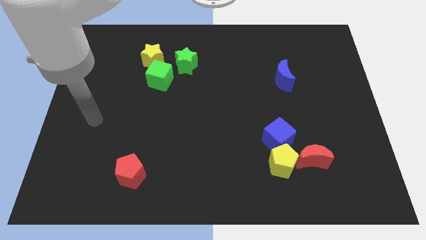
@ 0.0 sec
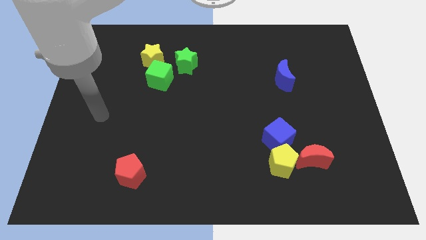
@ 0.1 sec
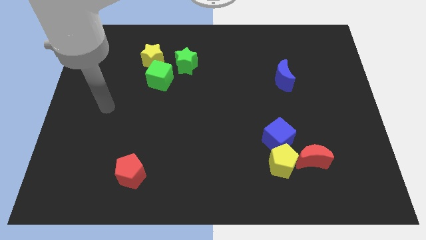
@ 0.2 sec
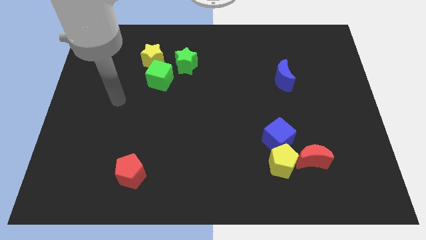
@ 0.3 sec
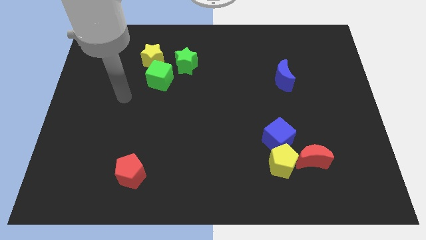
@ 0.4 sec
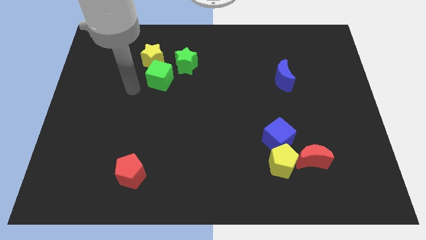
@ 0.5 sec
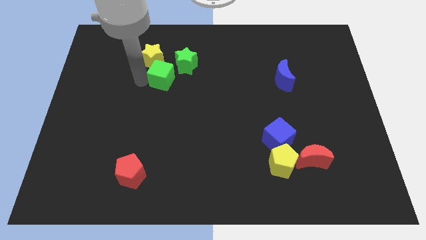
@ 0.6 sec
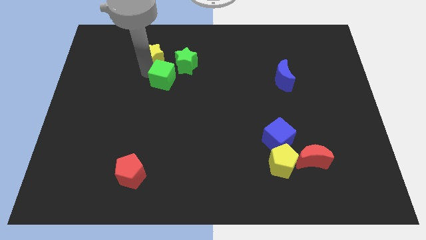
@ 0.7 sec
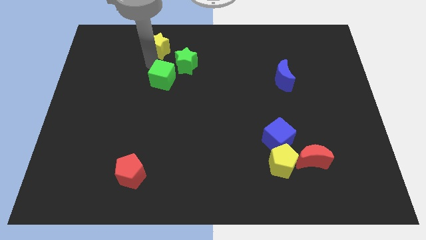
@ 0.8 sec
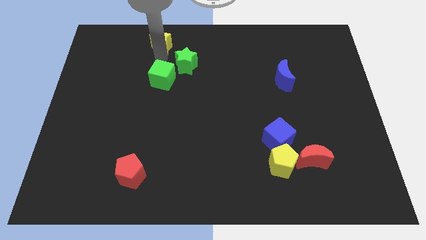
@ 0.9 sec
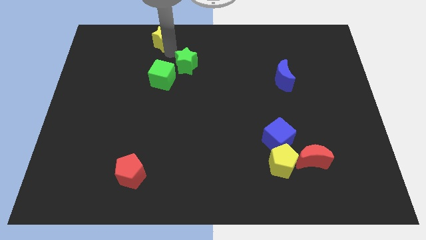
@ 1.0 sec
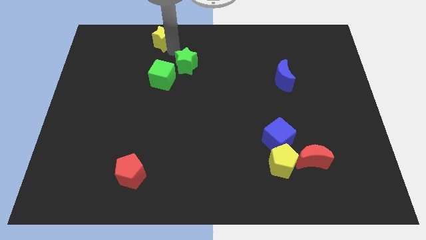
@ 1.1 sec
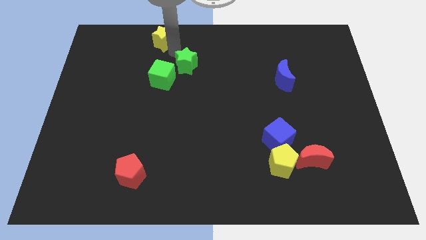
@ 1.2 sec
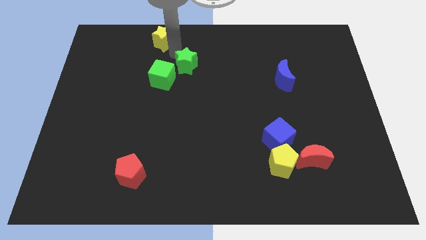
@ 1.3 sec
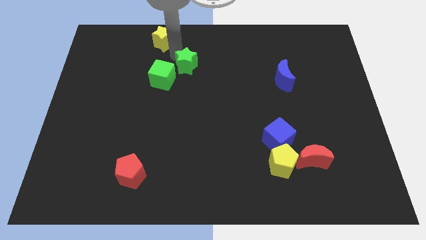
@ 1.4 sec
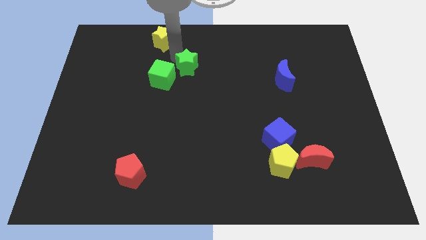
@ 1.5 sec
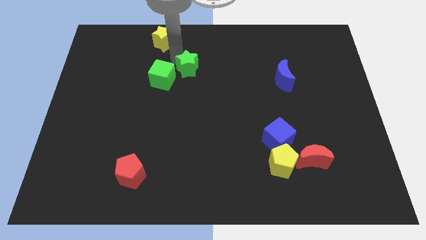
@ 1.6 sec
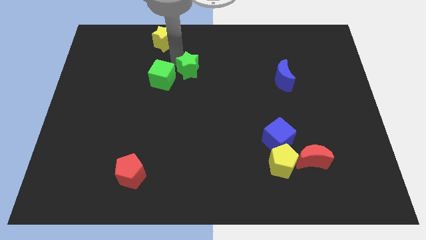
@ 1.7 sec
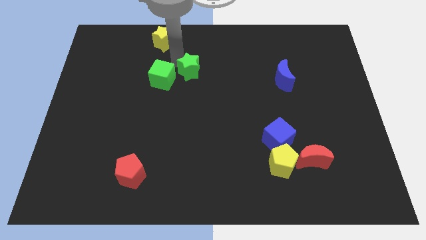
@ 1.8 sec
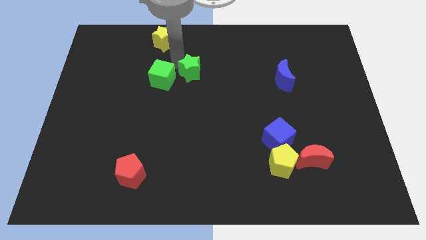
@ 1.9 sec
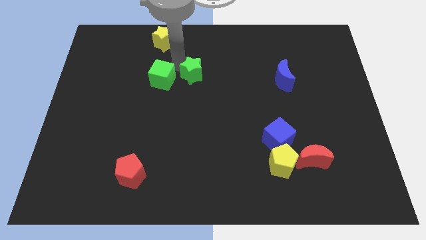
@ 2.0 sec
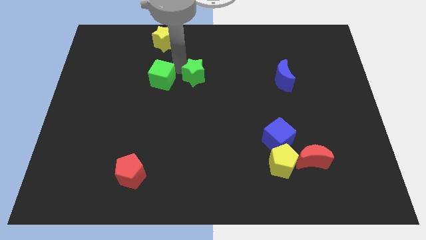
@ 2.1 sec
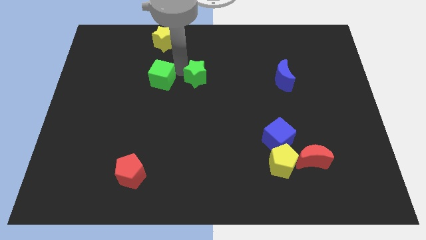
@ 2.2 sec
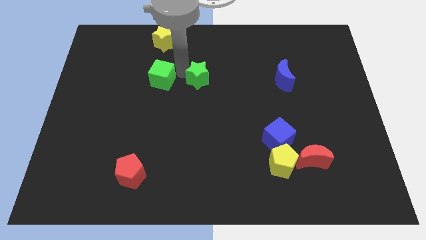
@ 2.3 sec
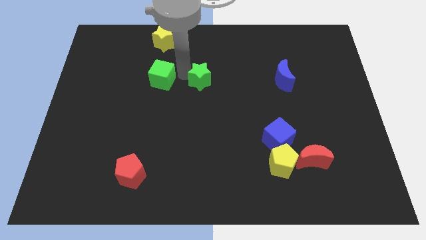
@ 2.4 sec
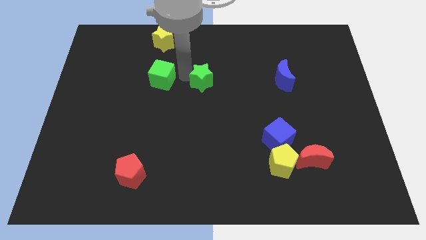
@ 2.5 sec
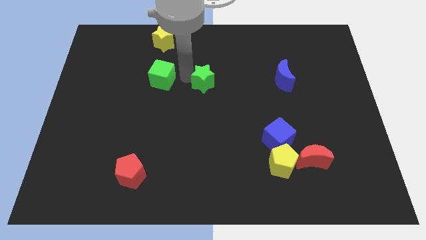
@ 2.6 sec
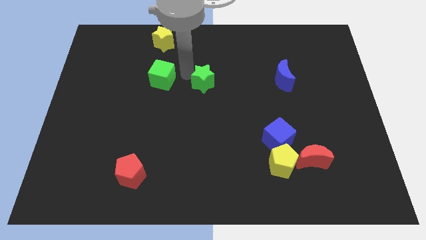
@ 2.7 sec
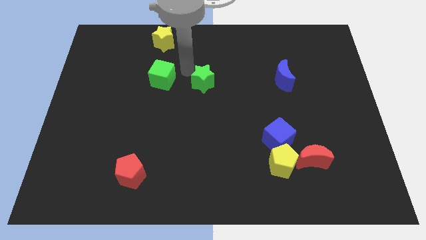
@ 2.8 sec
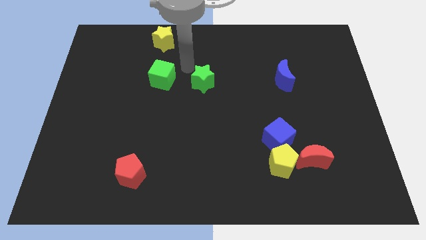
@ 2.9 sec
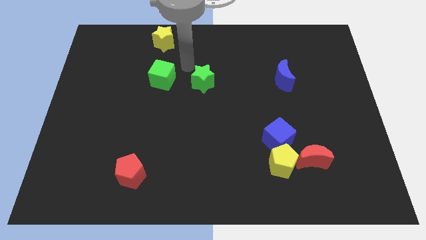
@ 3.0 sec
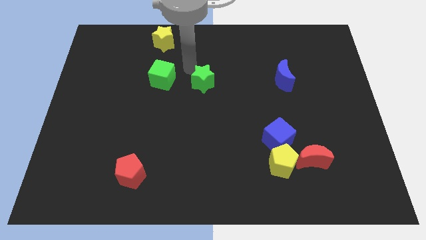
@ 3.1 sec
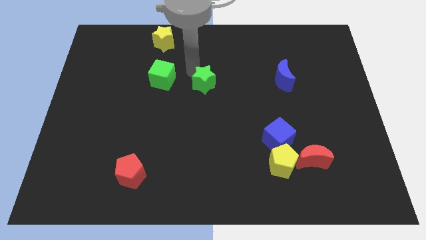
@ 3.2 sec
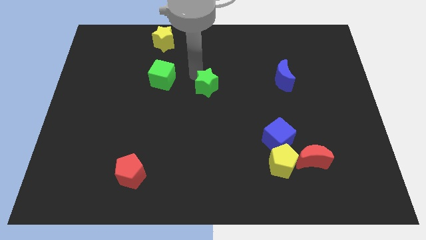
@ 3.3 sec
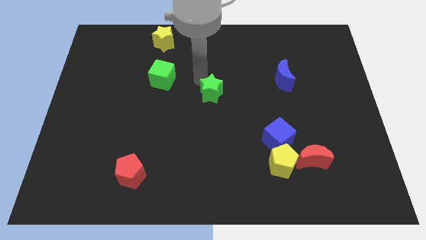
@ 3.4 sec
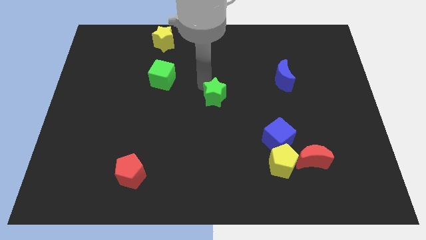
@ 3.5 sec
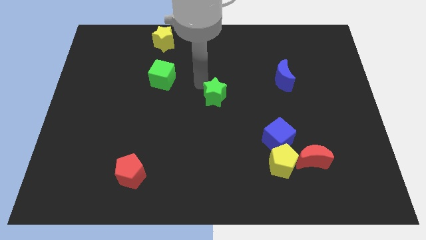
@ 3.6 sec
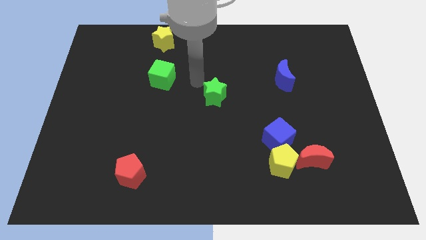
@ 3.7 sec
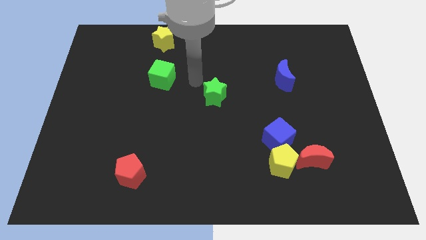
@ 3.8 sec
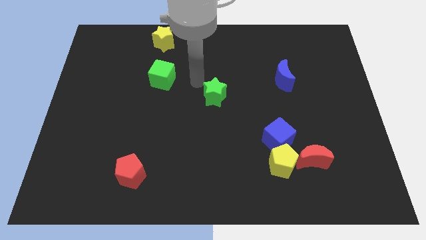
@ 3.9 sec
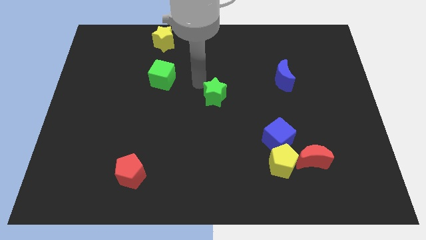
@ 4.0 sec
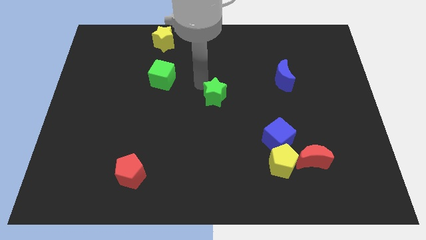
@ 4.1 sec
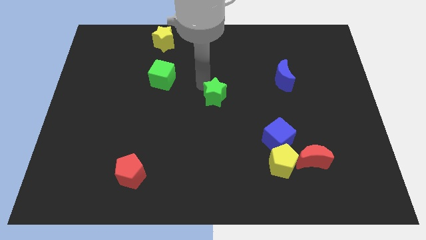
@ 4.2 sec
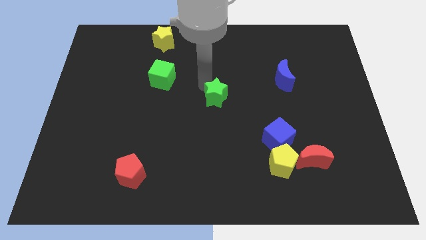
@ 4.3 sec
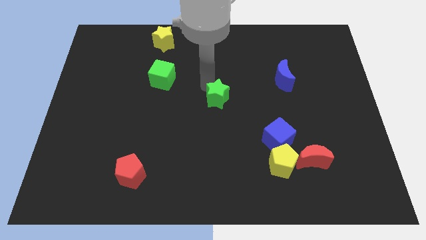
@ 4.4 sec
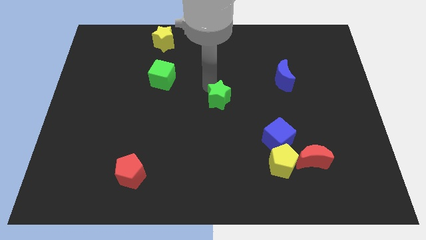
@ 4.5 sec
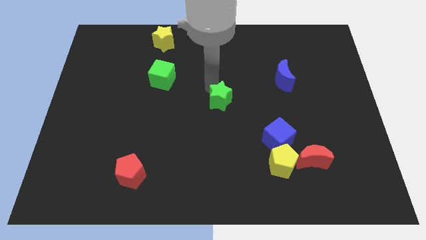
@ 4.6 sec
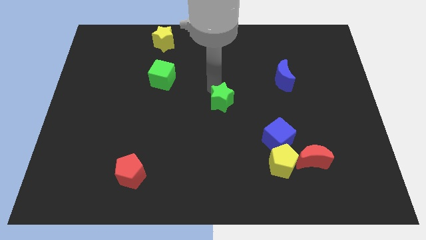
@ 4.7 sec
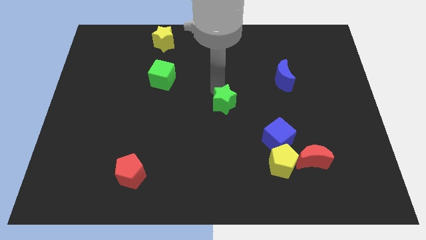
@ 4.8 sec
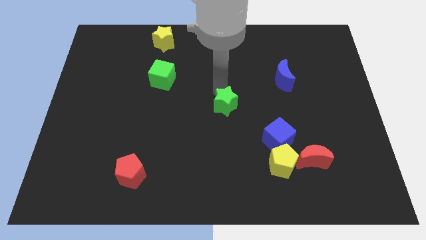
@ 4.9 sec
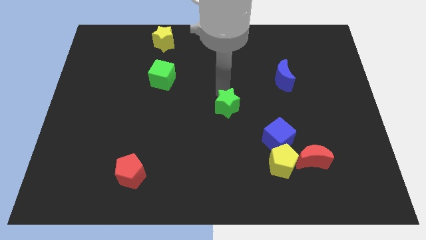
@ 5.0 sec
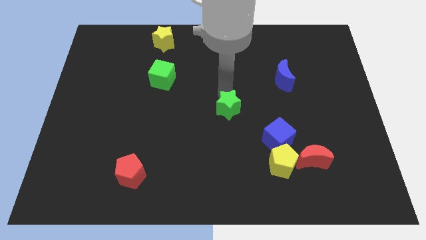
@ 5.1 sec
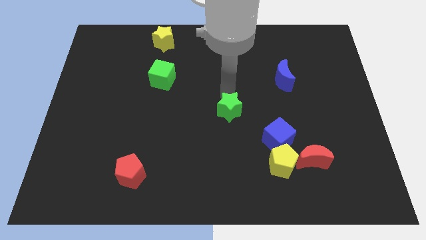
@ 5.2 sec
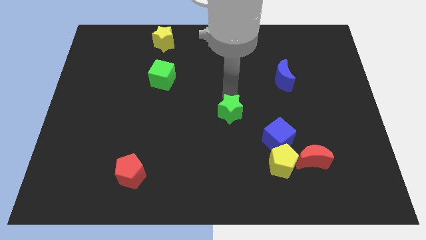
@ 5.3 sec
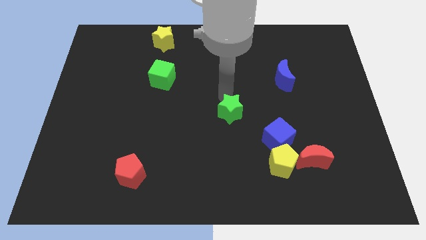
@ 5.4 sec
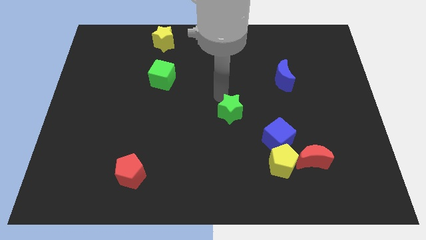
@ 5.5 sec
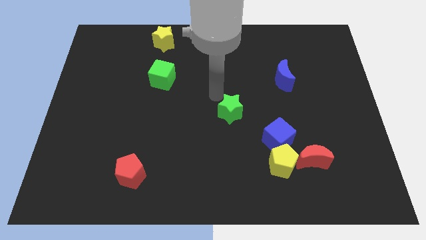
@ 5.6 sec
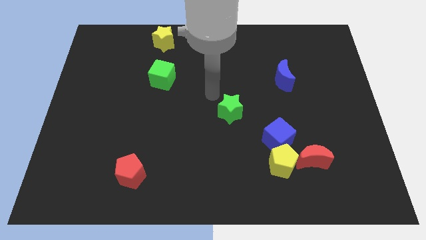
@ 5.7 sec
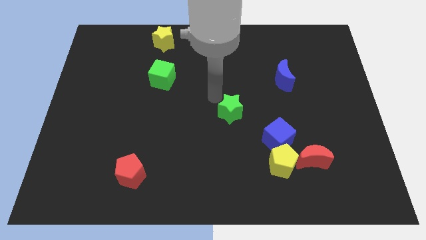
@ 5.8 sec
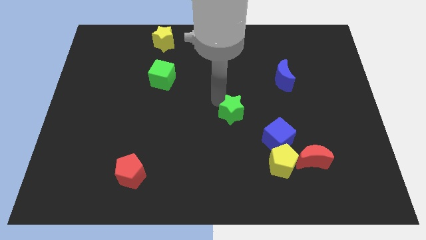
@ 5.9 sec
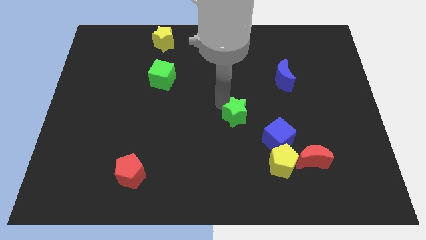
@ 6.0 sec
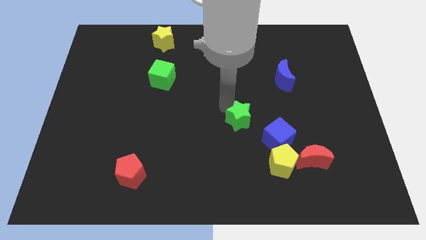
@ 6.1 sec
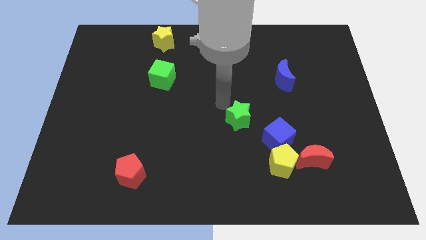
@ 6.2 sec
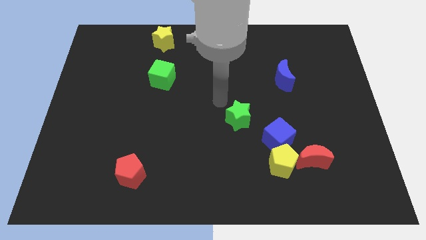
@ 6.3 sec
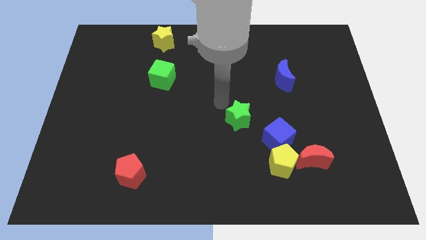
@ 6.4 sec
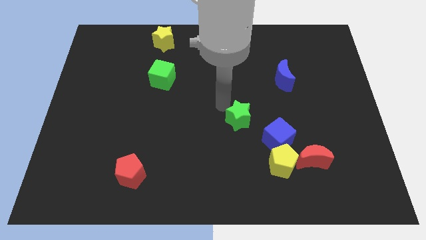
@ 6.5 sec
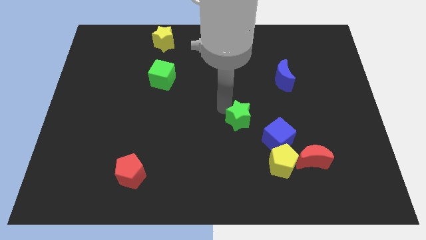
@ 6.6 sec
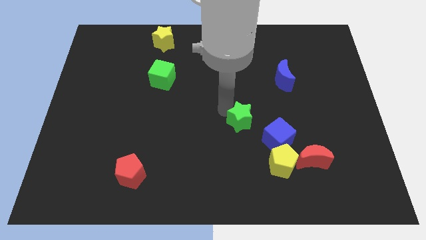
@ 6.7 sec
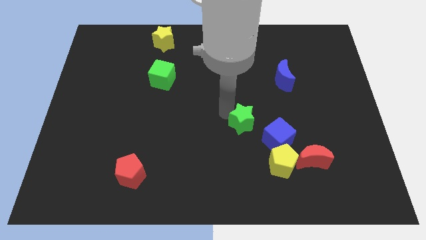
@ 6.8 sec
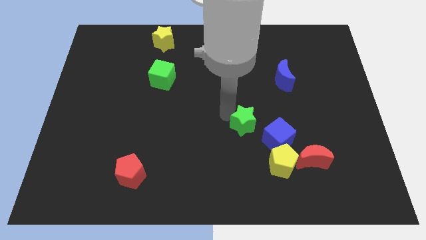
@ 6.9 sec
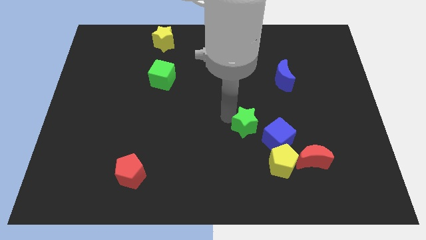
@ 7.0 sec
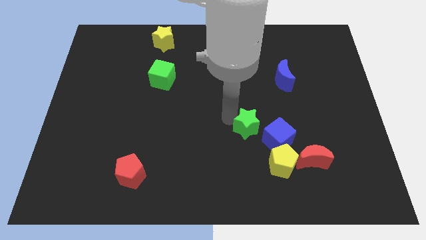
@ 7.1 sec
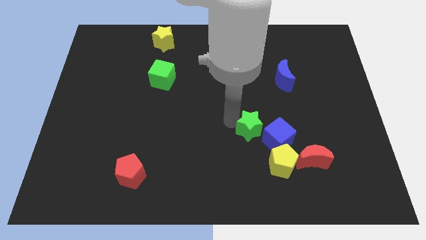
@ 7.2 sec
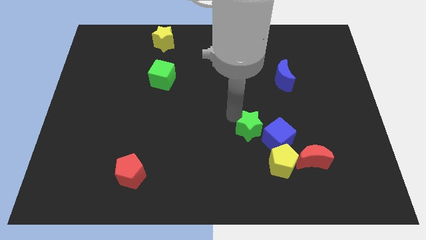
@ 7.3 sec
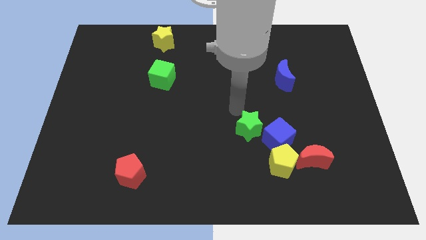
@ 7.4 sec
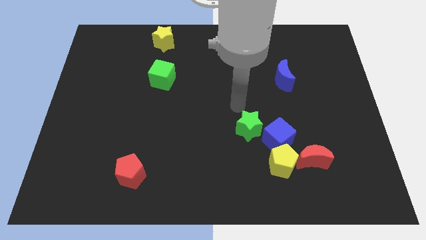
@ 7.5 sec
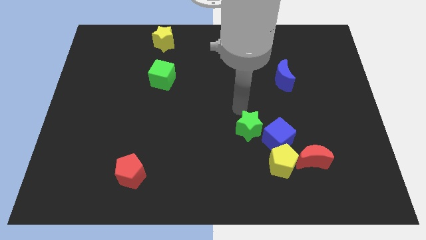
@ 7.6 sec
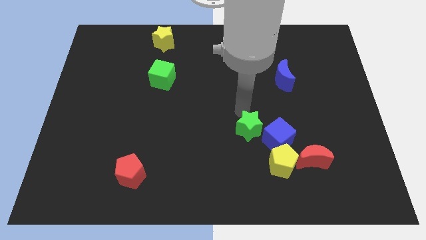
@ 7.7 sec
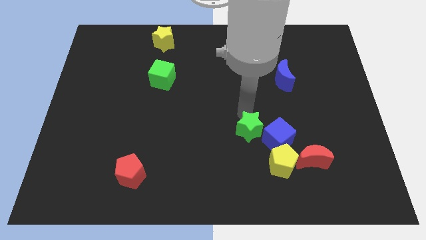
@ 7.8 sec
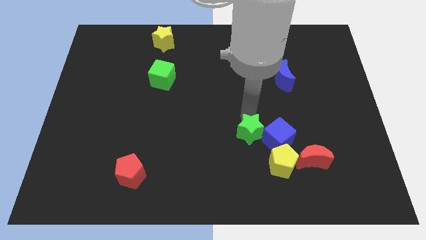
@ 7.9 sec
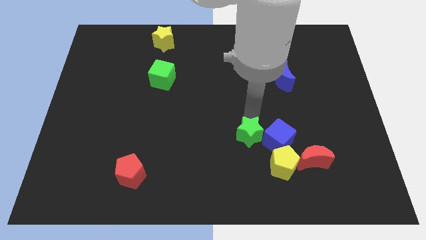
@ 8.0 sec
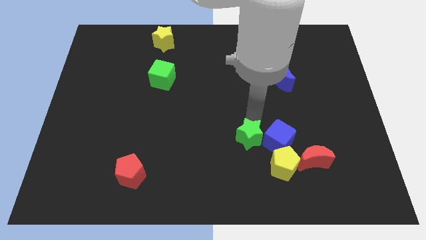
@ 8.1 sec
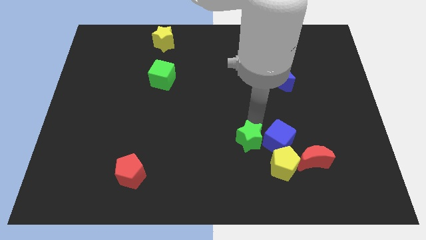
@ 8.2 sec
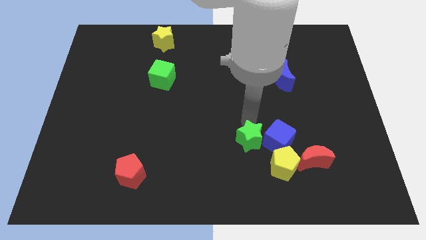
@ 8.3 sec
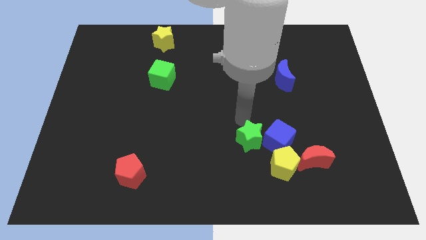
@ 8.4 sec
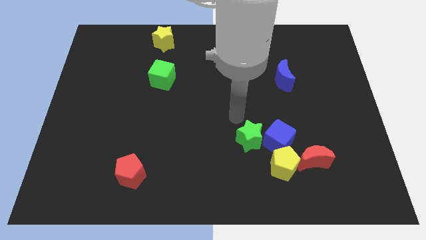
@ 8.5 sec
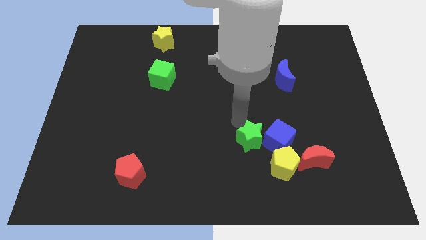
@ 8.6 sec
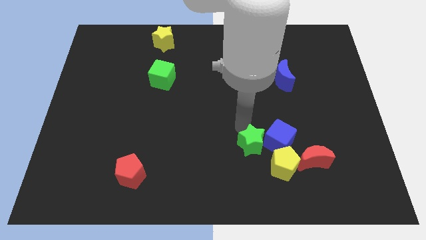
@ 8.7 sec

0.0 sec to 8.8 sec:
slide the green star to the left of the red moon
